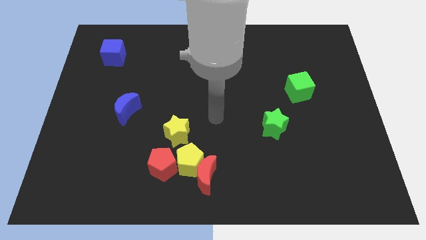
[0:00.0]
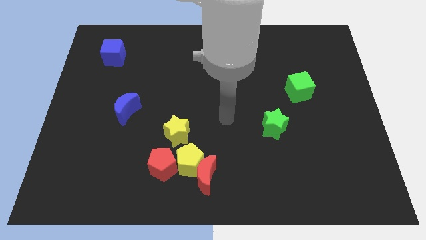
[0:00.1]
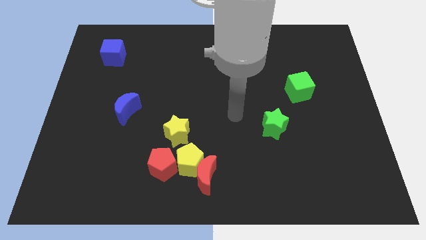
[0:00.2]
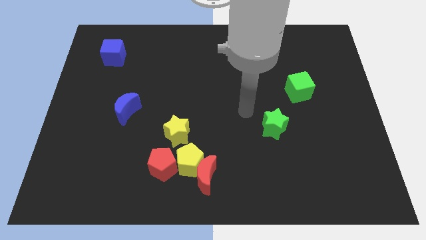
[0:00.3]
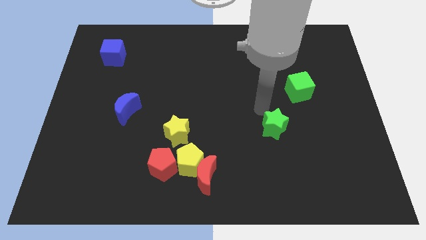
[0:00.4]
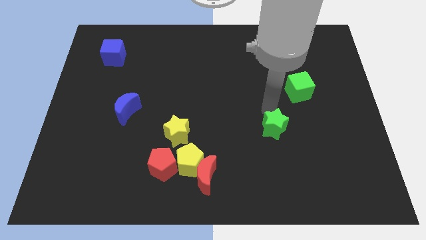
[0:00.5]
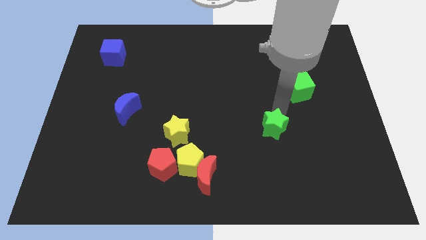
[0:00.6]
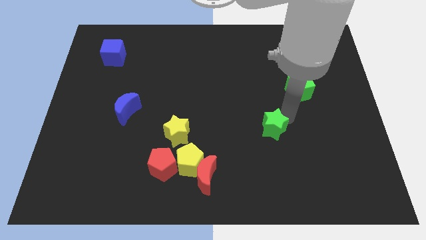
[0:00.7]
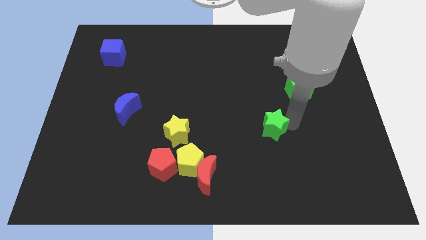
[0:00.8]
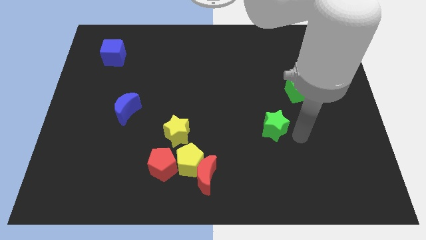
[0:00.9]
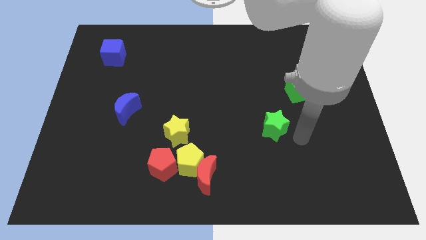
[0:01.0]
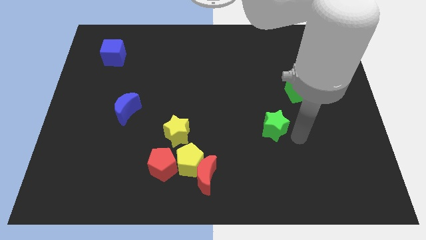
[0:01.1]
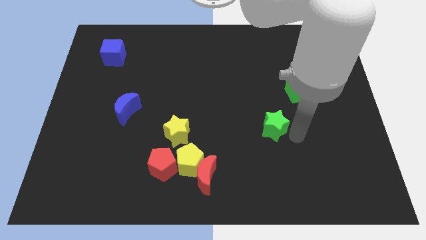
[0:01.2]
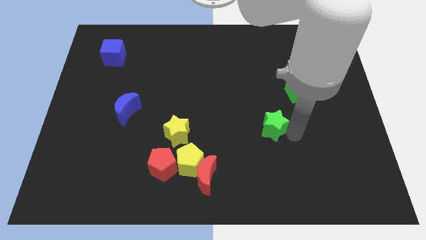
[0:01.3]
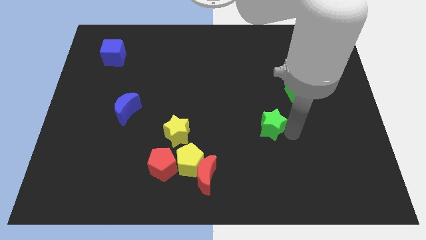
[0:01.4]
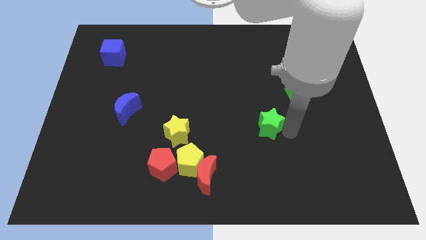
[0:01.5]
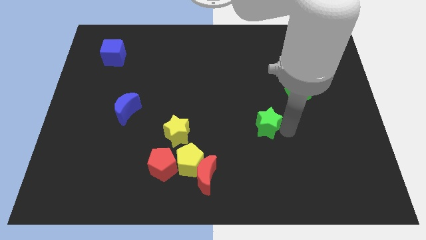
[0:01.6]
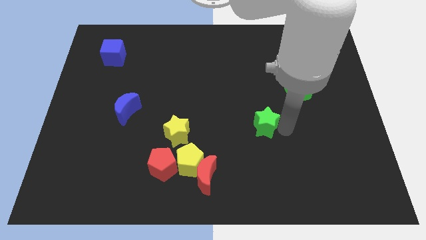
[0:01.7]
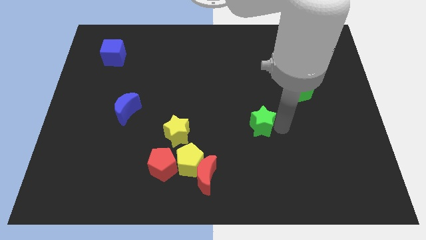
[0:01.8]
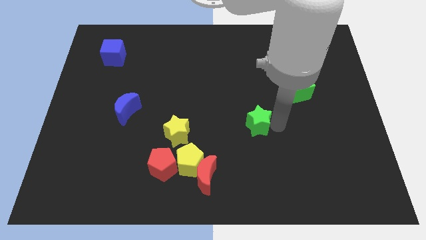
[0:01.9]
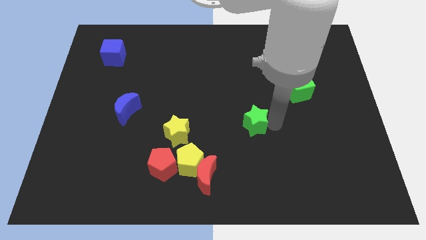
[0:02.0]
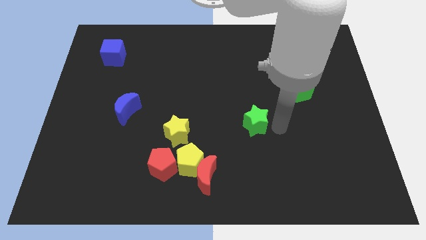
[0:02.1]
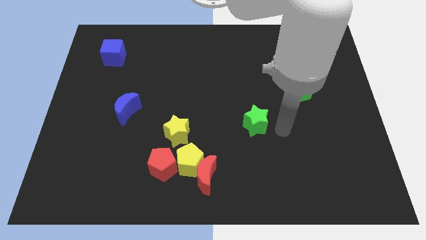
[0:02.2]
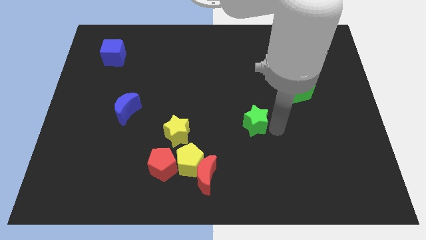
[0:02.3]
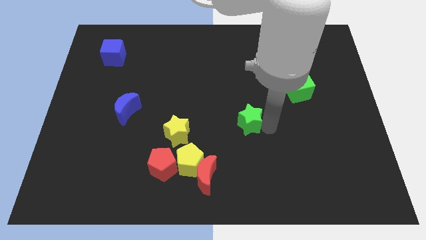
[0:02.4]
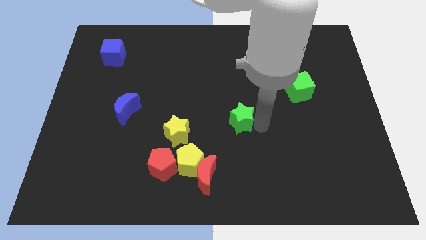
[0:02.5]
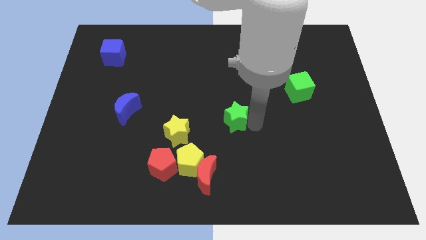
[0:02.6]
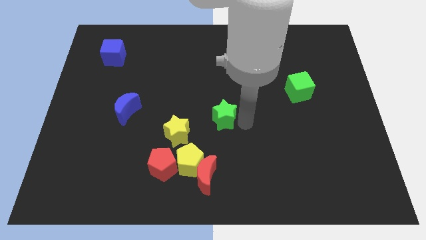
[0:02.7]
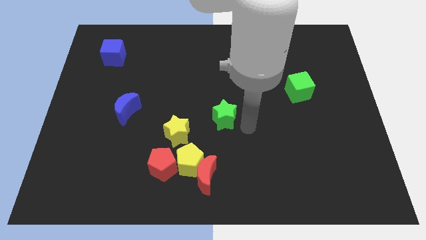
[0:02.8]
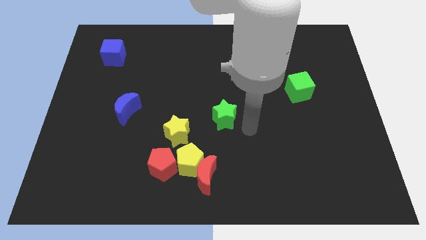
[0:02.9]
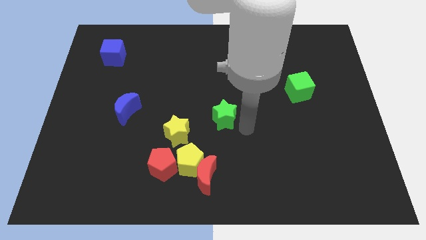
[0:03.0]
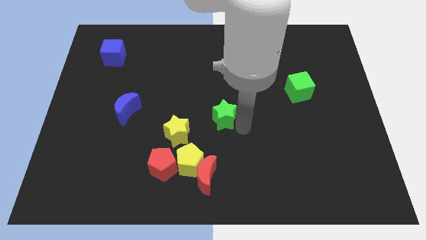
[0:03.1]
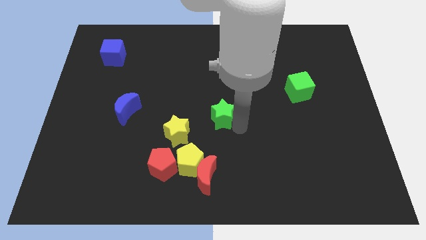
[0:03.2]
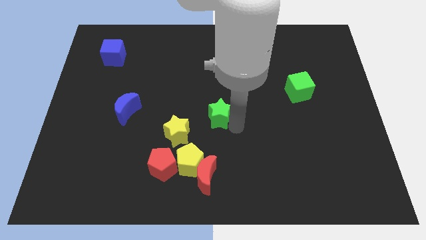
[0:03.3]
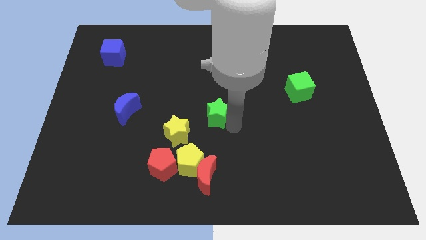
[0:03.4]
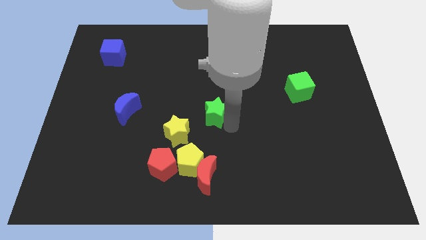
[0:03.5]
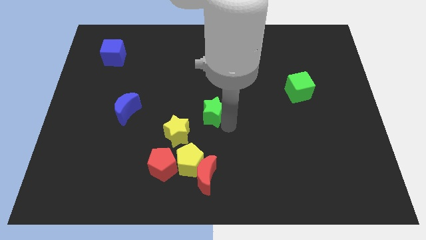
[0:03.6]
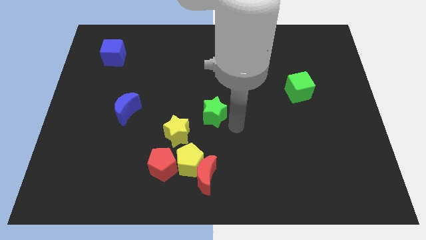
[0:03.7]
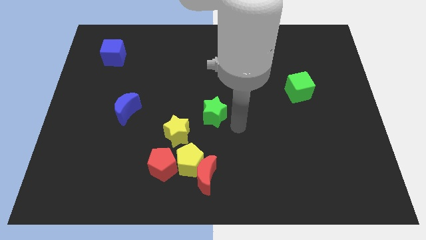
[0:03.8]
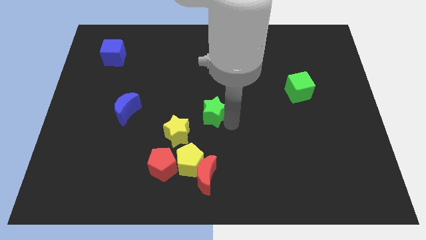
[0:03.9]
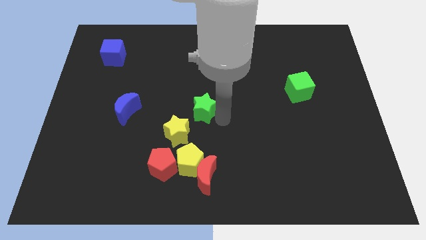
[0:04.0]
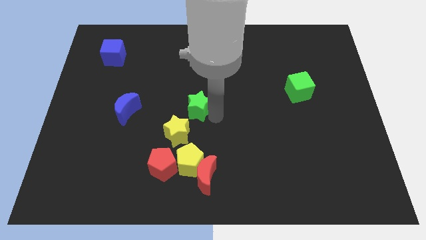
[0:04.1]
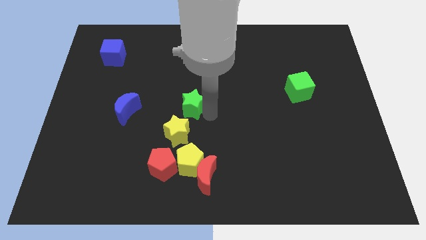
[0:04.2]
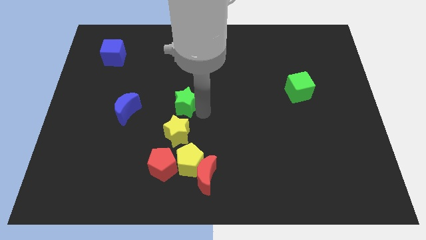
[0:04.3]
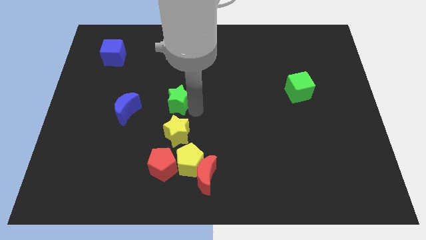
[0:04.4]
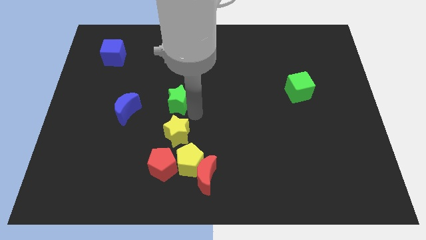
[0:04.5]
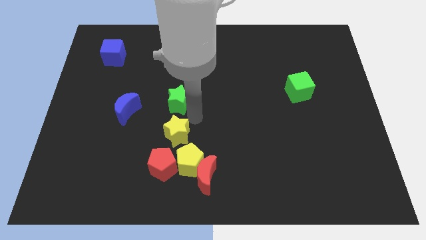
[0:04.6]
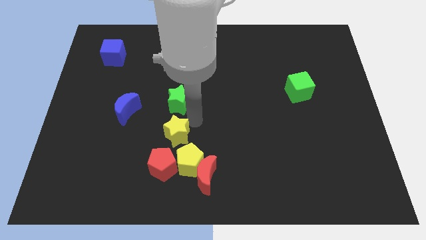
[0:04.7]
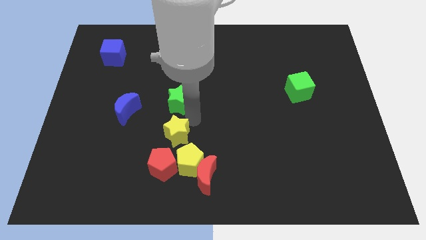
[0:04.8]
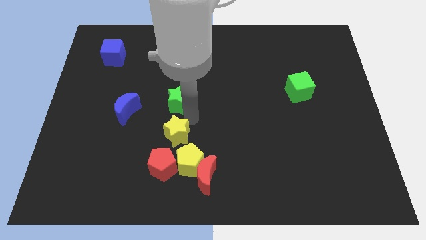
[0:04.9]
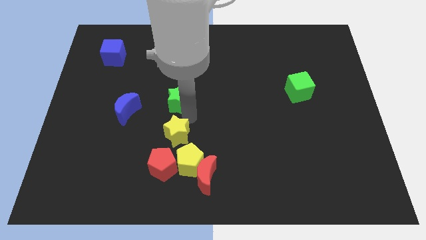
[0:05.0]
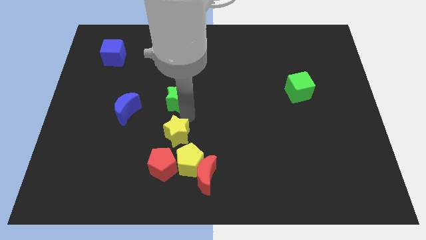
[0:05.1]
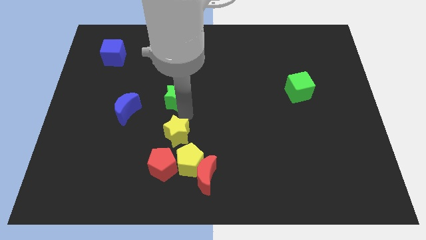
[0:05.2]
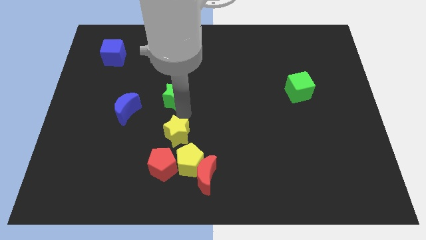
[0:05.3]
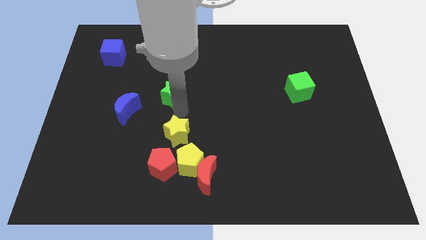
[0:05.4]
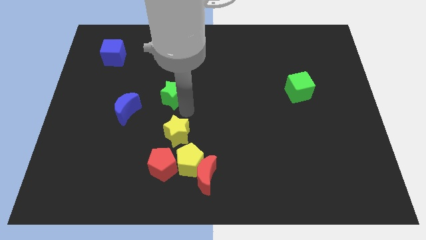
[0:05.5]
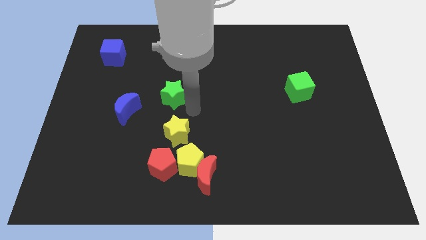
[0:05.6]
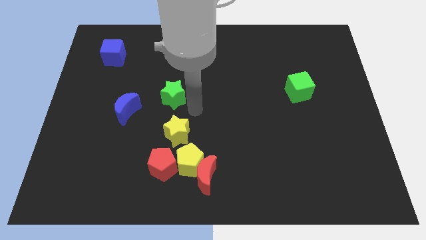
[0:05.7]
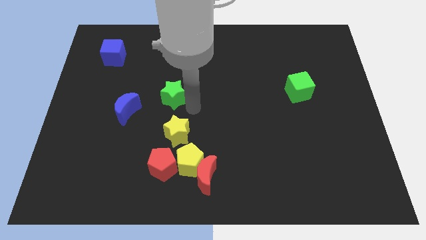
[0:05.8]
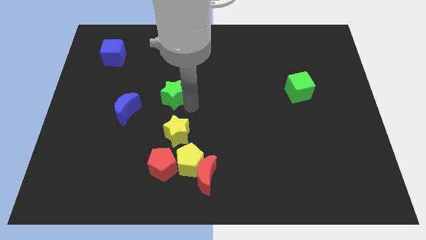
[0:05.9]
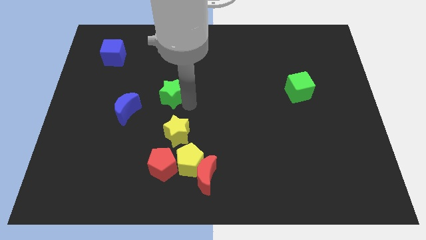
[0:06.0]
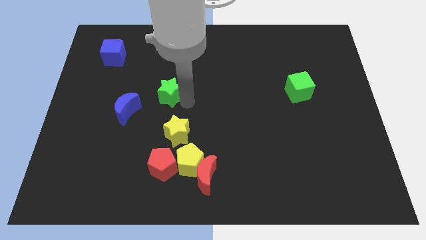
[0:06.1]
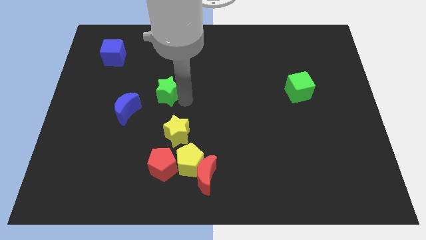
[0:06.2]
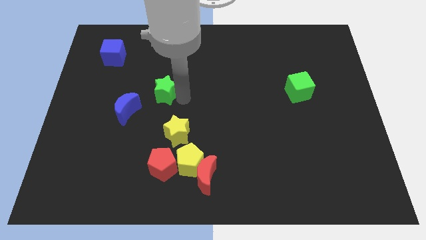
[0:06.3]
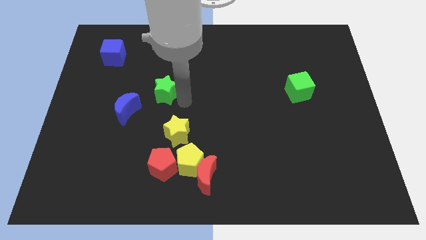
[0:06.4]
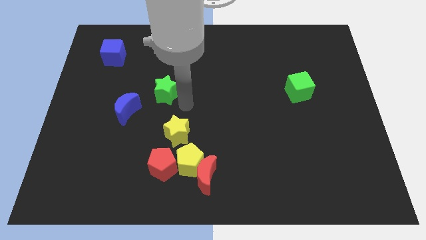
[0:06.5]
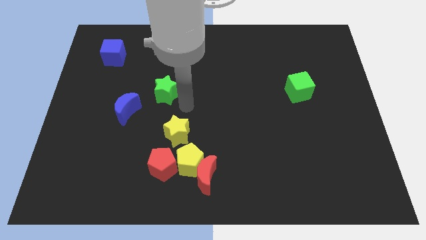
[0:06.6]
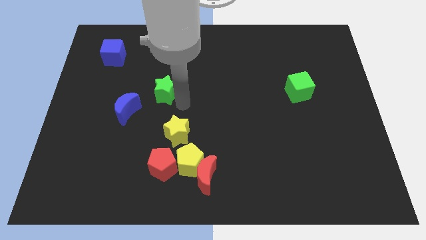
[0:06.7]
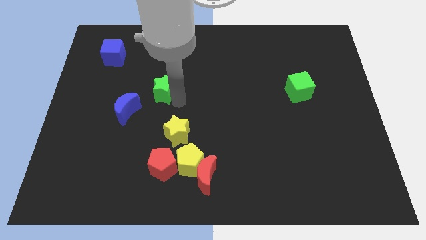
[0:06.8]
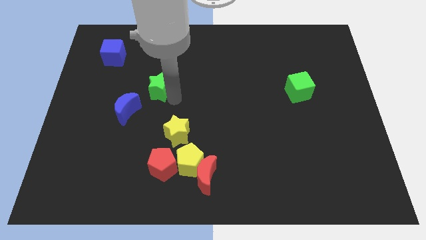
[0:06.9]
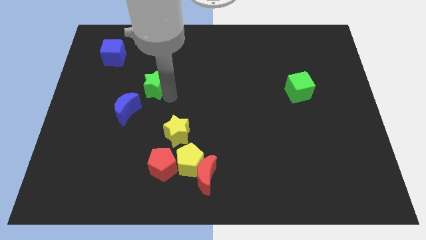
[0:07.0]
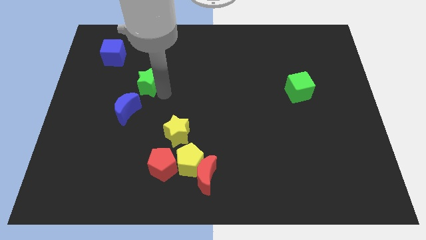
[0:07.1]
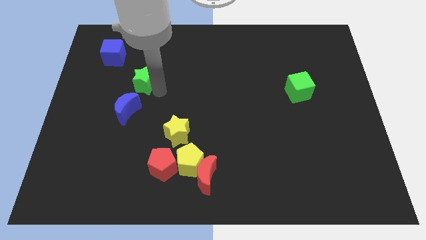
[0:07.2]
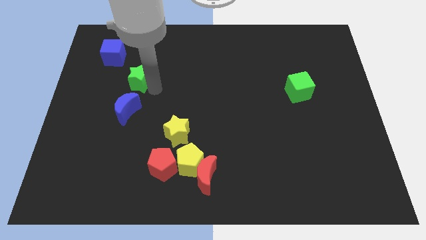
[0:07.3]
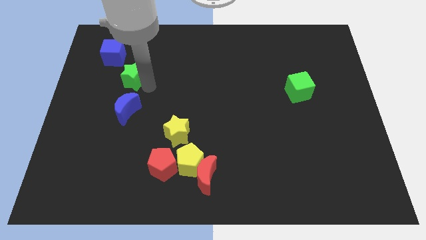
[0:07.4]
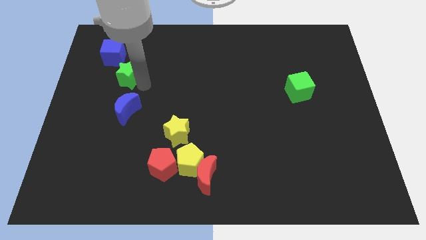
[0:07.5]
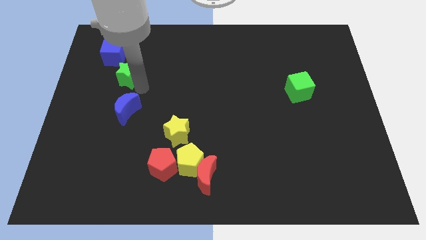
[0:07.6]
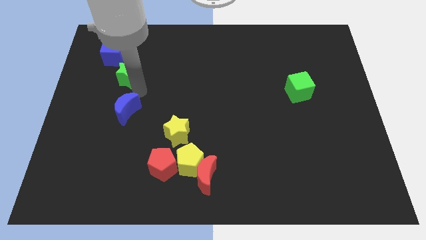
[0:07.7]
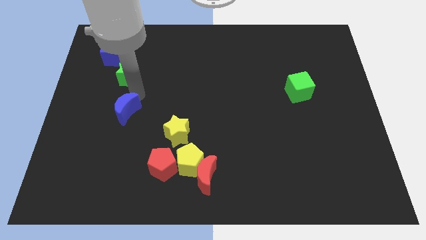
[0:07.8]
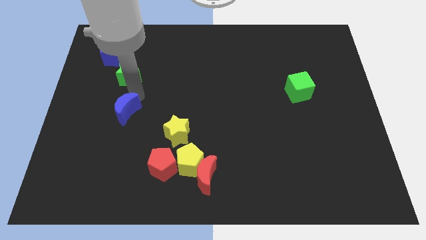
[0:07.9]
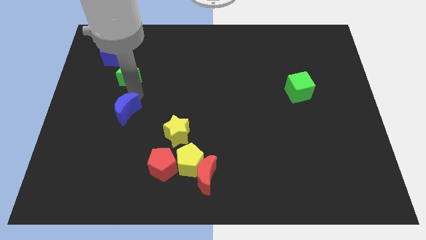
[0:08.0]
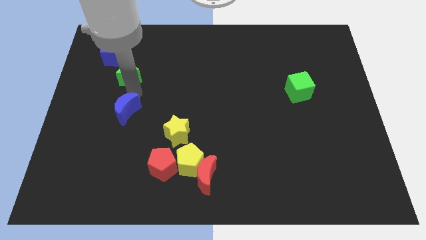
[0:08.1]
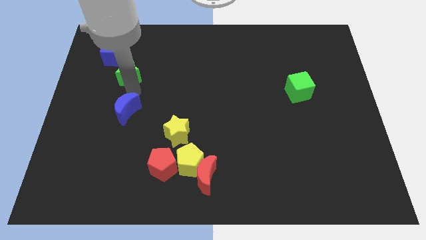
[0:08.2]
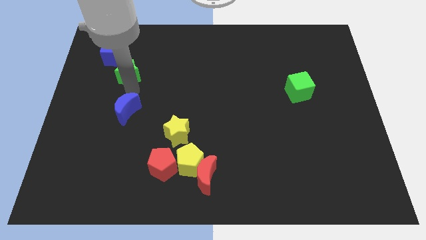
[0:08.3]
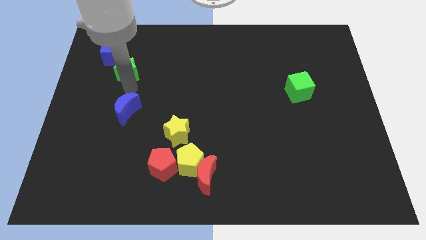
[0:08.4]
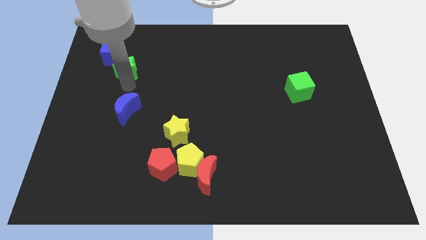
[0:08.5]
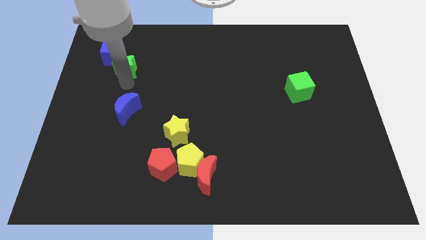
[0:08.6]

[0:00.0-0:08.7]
push the green star to the blue cube
